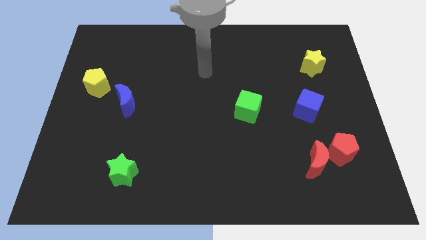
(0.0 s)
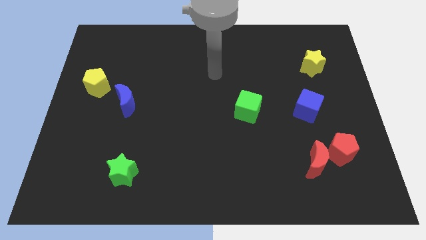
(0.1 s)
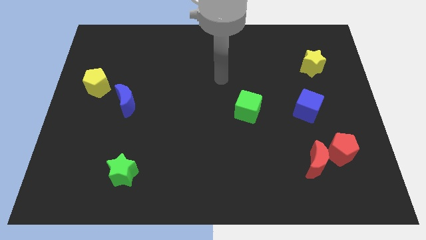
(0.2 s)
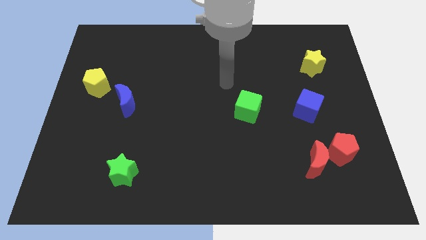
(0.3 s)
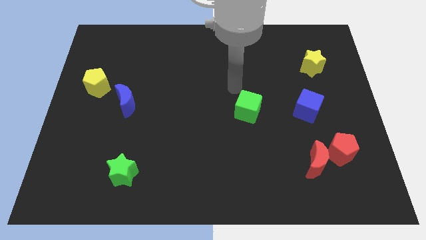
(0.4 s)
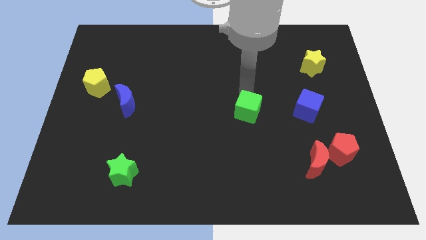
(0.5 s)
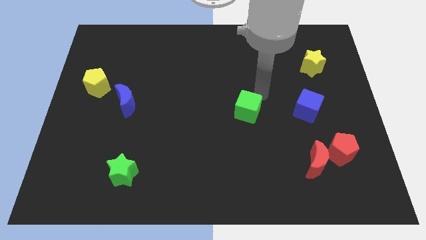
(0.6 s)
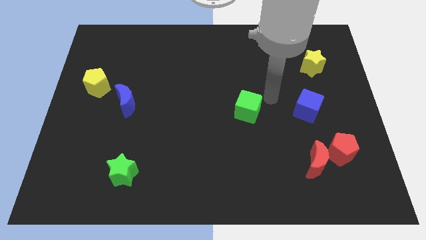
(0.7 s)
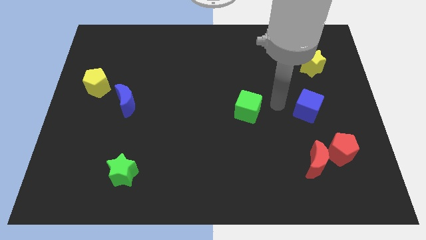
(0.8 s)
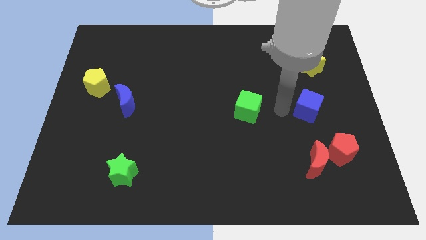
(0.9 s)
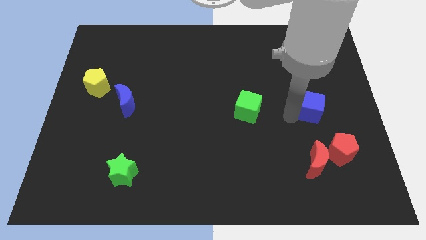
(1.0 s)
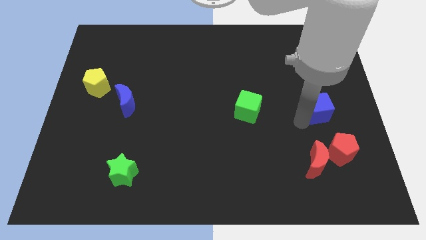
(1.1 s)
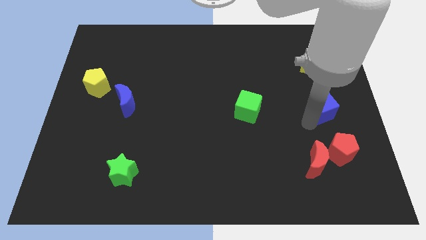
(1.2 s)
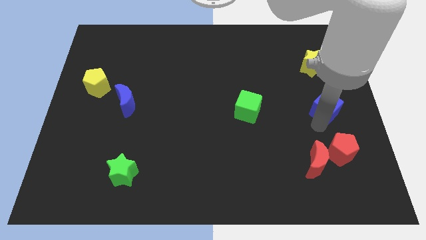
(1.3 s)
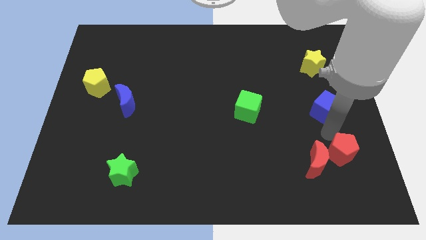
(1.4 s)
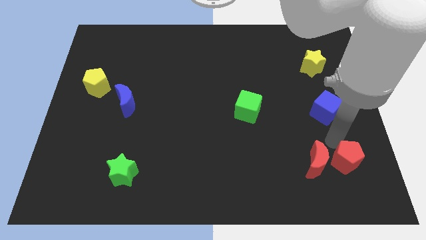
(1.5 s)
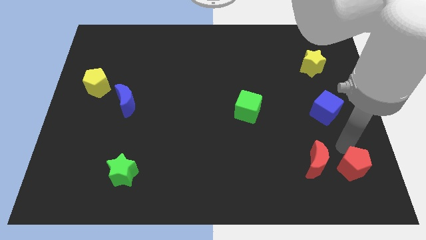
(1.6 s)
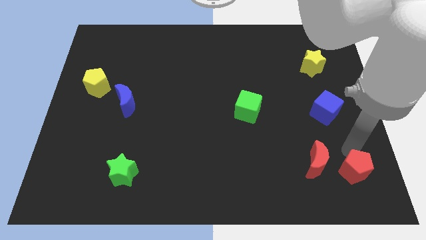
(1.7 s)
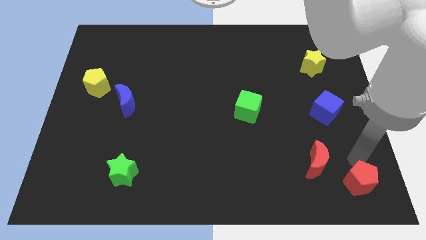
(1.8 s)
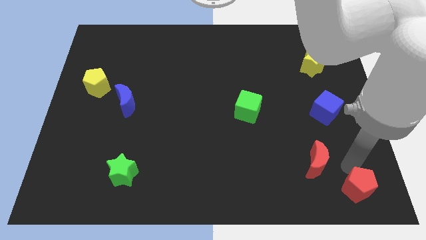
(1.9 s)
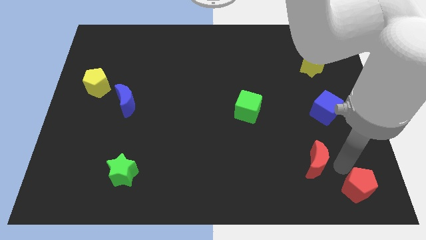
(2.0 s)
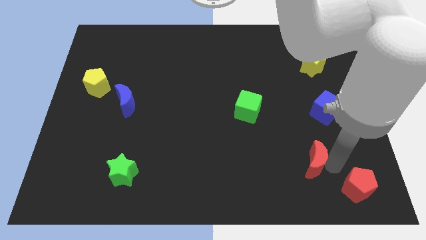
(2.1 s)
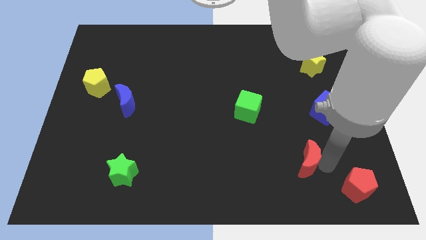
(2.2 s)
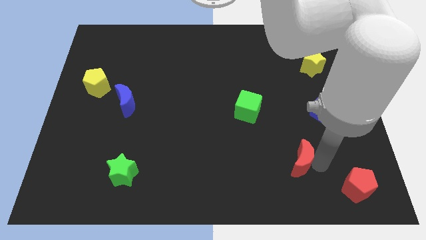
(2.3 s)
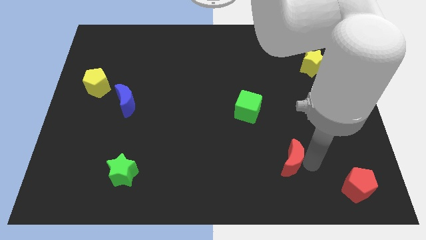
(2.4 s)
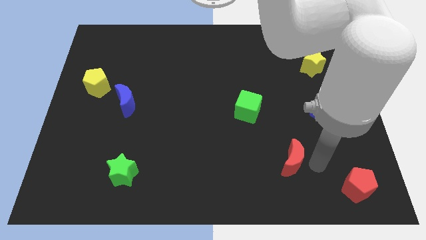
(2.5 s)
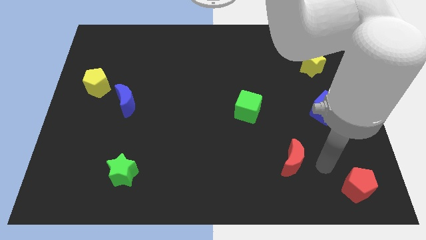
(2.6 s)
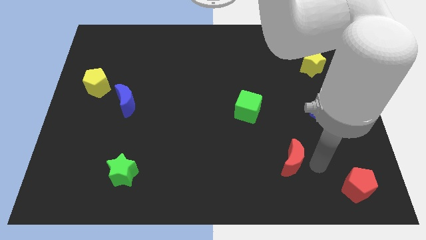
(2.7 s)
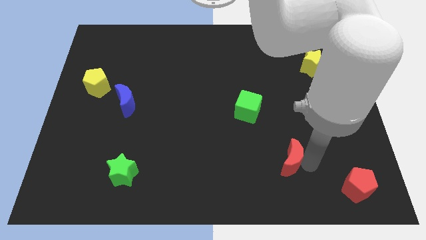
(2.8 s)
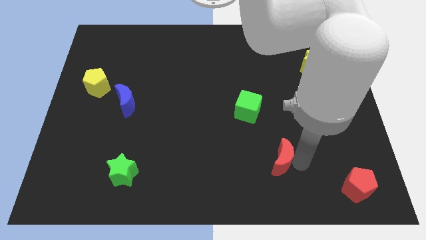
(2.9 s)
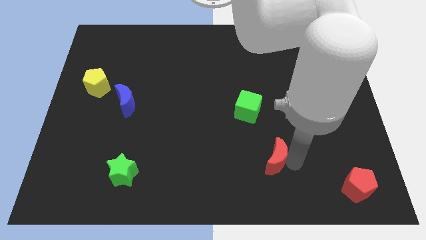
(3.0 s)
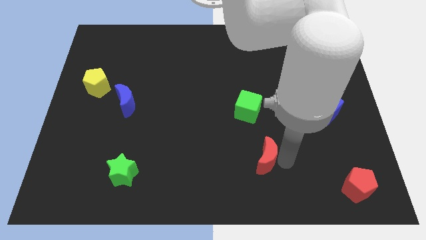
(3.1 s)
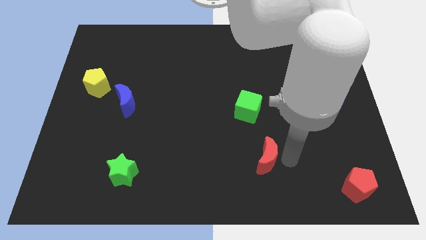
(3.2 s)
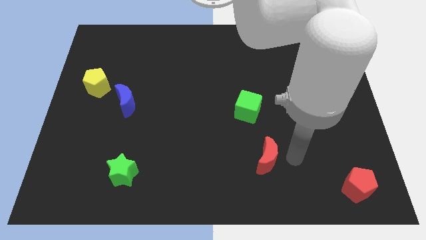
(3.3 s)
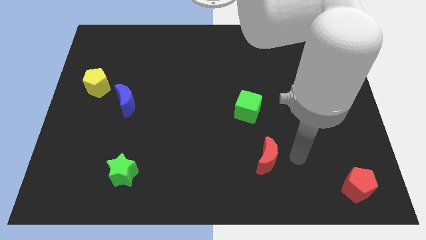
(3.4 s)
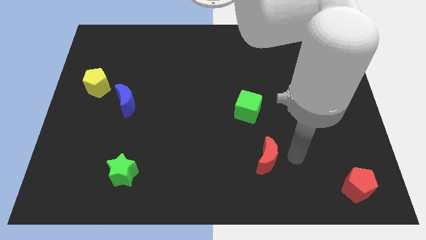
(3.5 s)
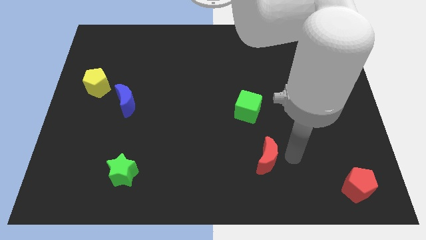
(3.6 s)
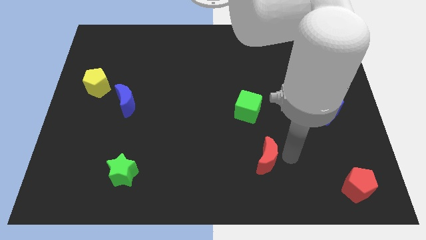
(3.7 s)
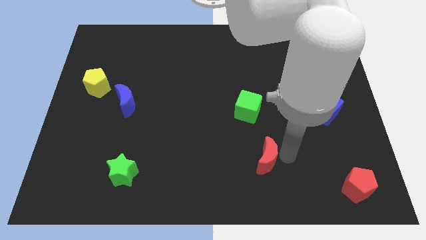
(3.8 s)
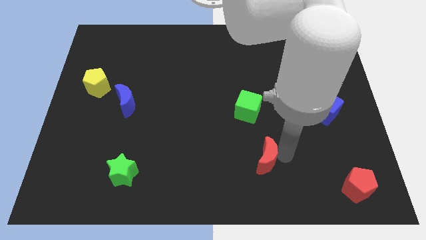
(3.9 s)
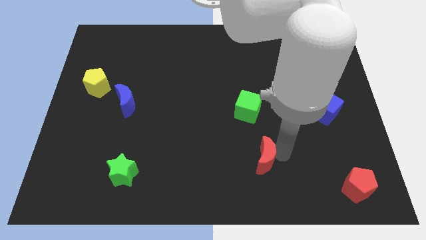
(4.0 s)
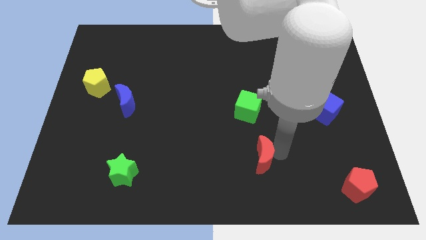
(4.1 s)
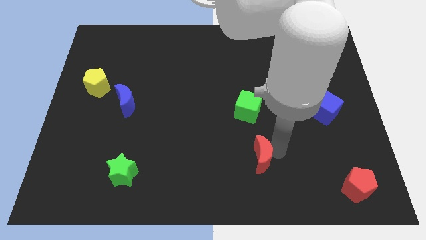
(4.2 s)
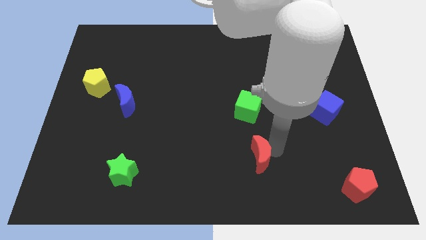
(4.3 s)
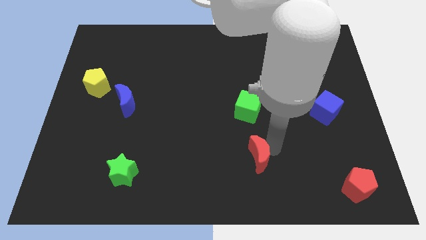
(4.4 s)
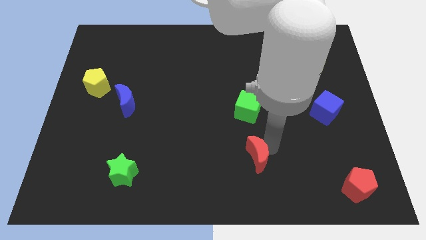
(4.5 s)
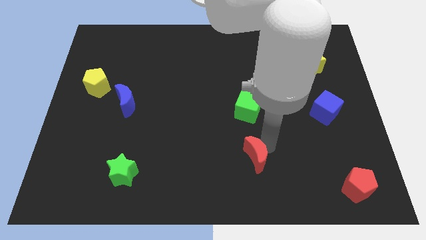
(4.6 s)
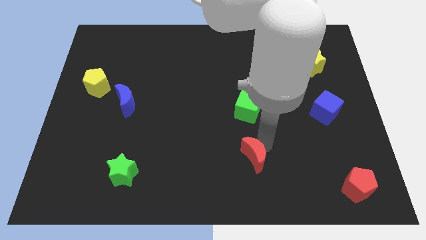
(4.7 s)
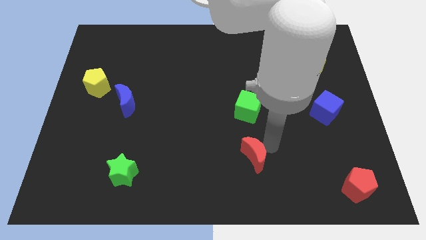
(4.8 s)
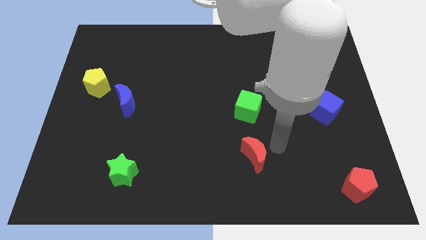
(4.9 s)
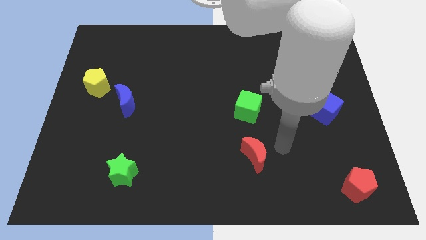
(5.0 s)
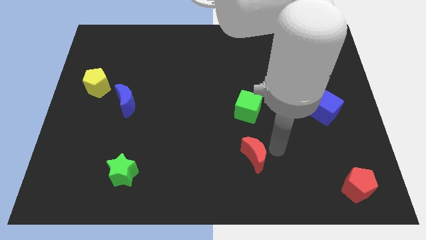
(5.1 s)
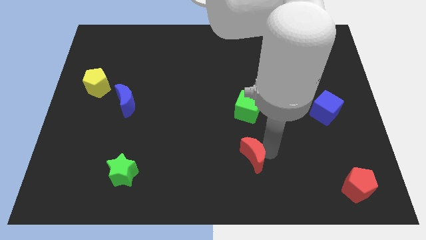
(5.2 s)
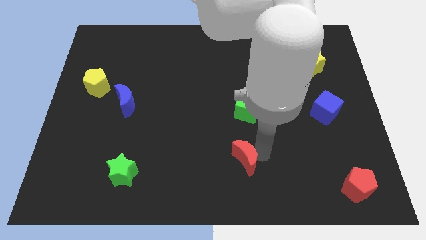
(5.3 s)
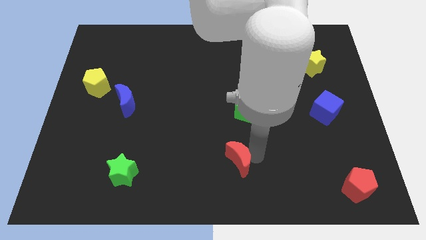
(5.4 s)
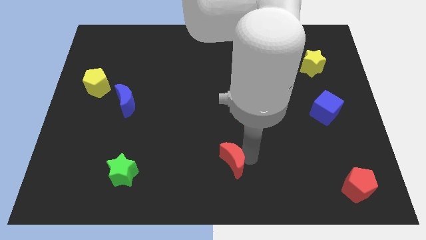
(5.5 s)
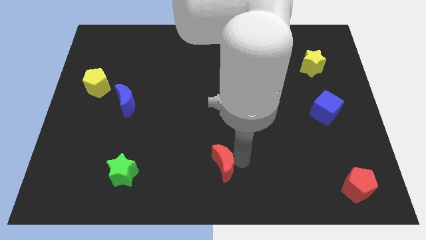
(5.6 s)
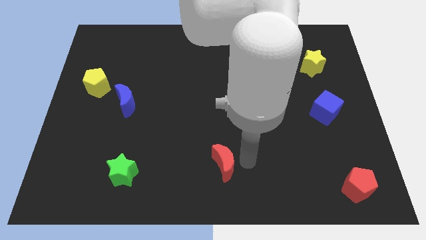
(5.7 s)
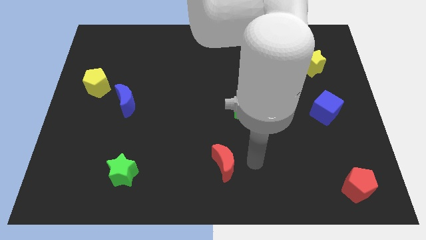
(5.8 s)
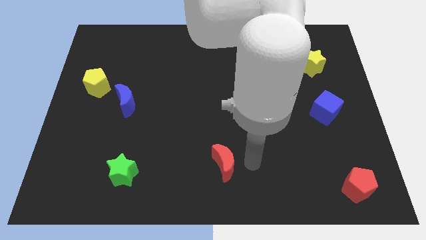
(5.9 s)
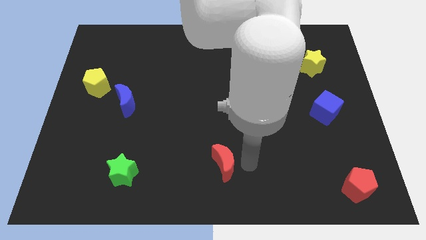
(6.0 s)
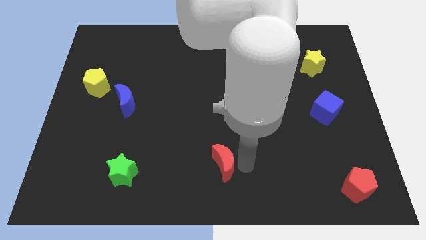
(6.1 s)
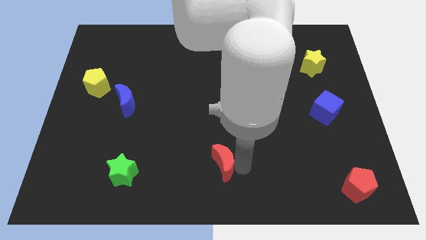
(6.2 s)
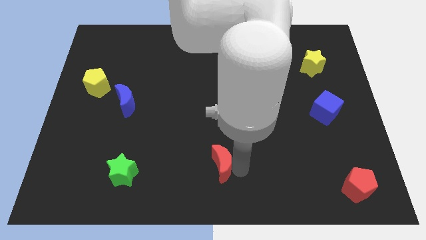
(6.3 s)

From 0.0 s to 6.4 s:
slide the red moon to the left

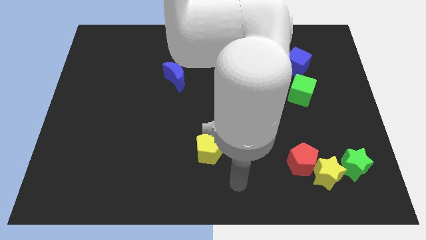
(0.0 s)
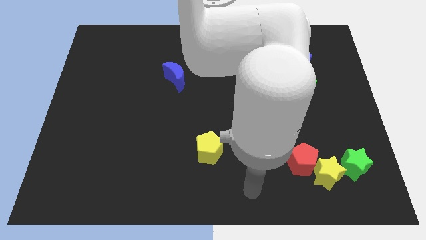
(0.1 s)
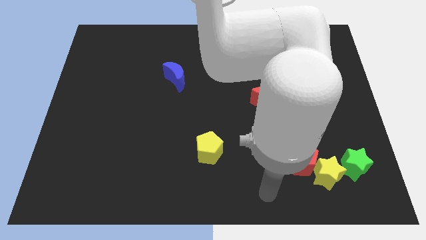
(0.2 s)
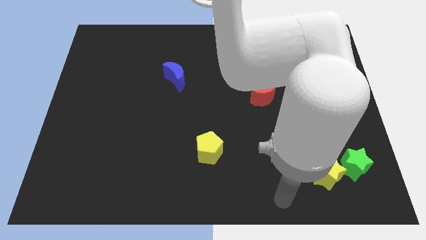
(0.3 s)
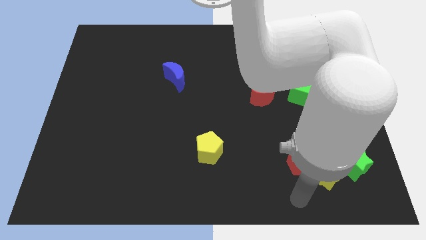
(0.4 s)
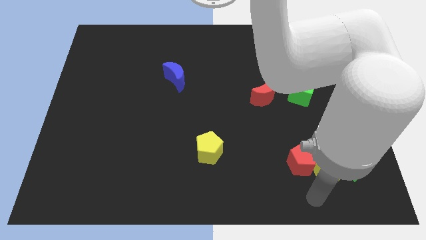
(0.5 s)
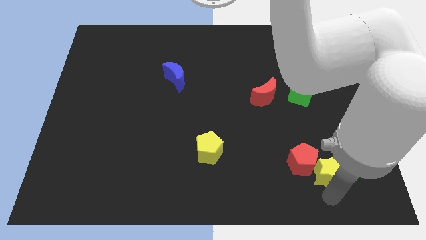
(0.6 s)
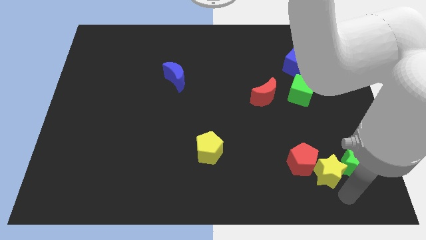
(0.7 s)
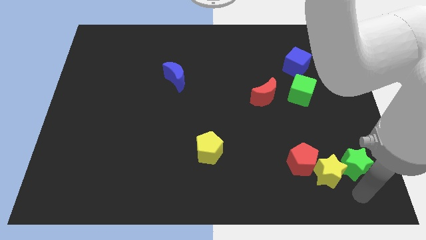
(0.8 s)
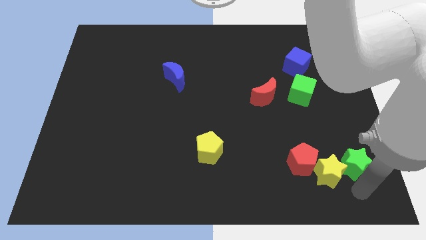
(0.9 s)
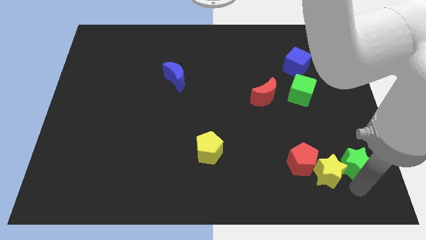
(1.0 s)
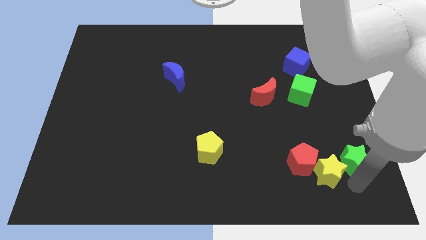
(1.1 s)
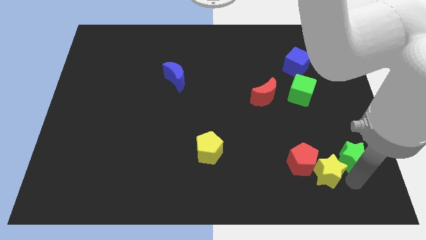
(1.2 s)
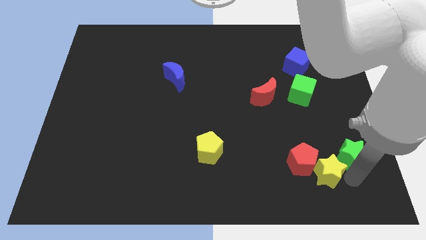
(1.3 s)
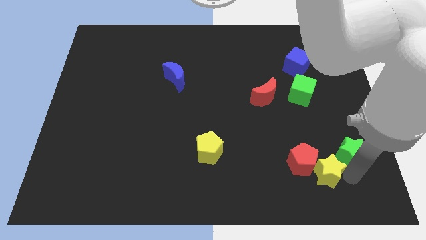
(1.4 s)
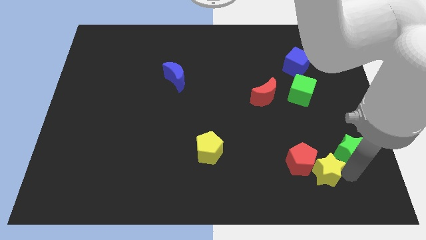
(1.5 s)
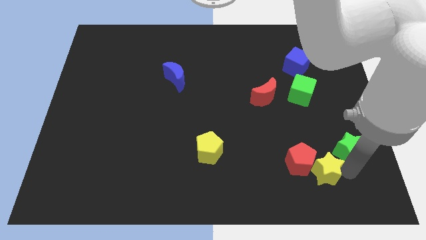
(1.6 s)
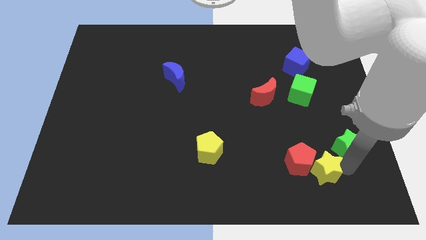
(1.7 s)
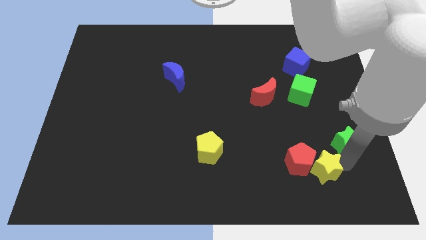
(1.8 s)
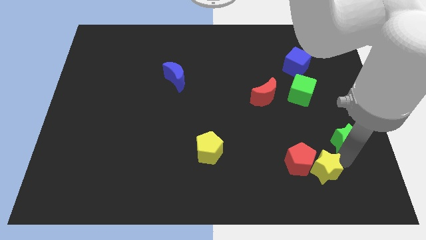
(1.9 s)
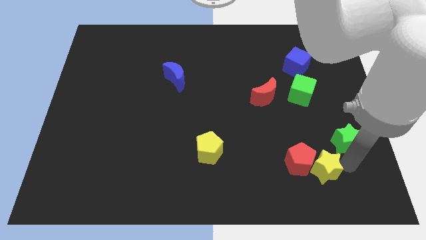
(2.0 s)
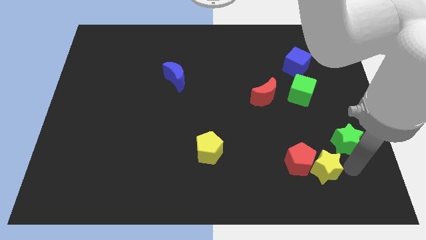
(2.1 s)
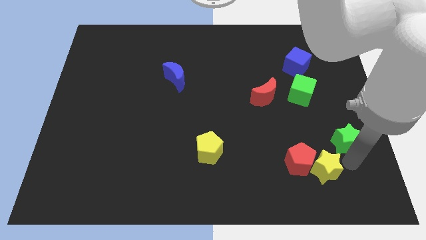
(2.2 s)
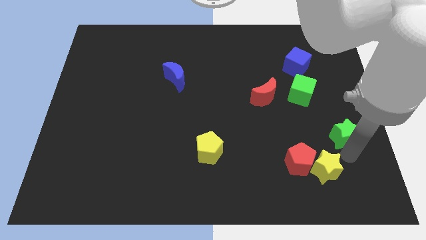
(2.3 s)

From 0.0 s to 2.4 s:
slightly slide the green star up

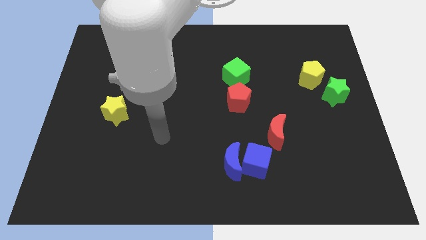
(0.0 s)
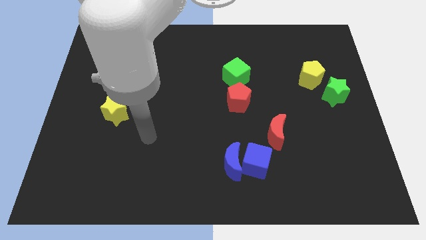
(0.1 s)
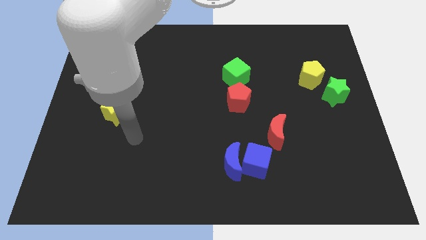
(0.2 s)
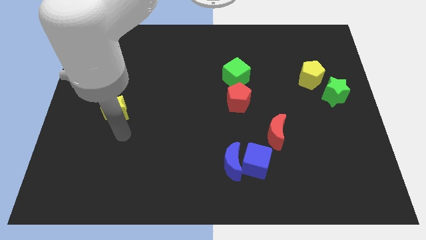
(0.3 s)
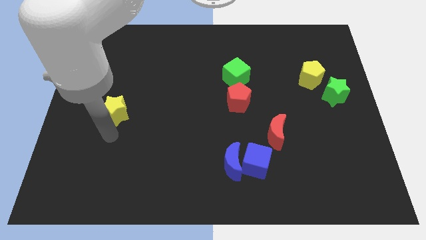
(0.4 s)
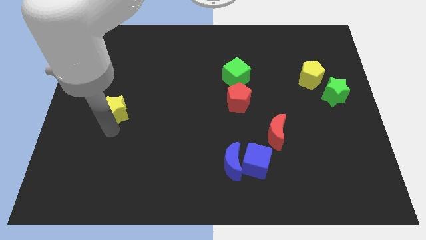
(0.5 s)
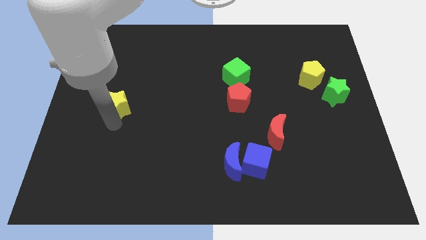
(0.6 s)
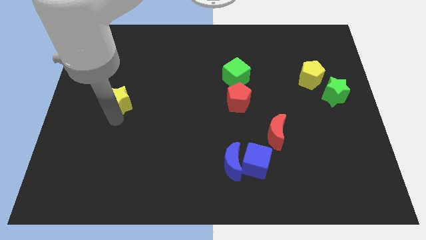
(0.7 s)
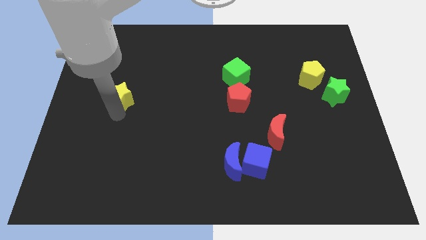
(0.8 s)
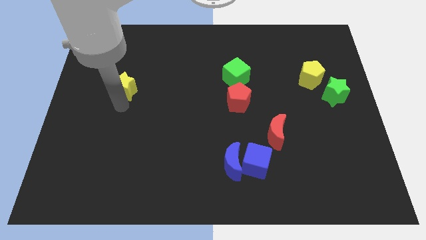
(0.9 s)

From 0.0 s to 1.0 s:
push the yellow star up a bit
